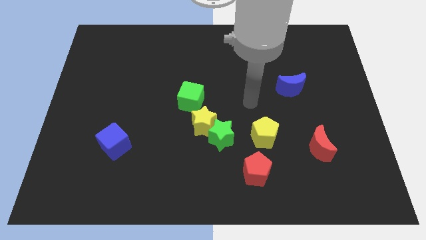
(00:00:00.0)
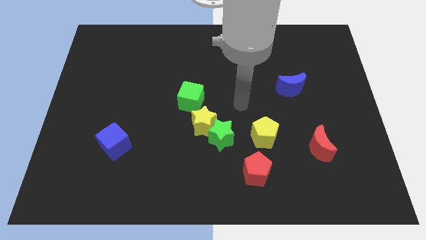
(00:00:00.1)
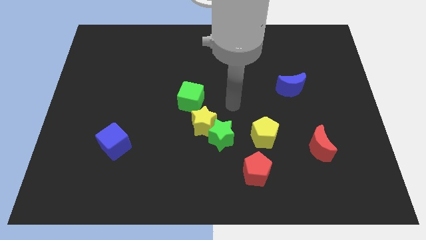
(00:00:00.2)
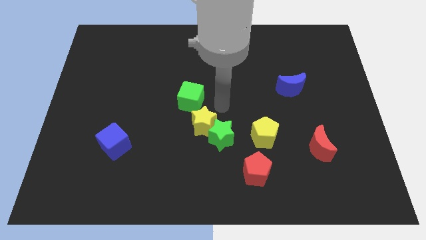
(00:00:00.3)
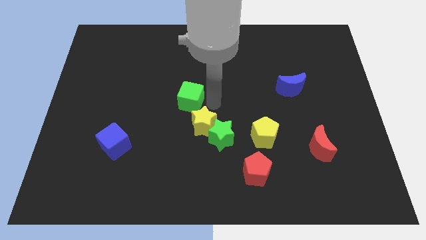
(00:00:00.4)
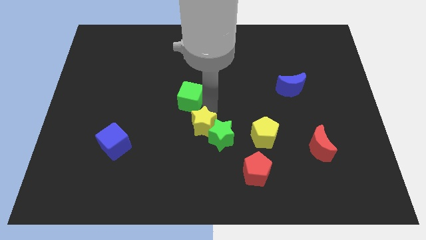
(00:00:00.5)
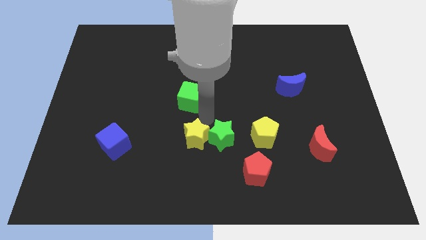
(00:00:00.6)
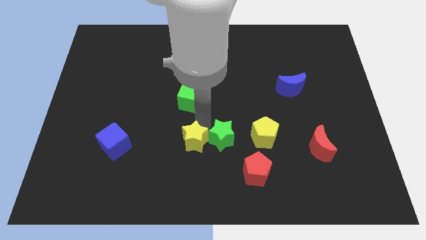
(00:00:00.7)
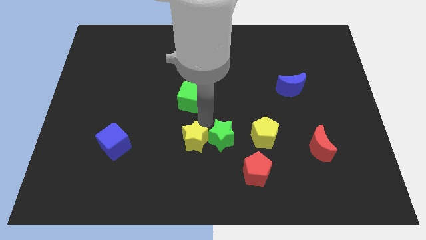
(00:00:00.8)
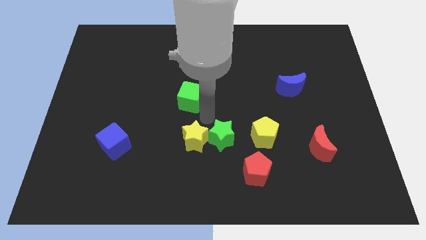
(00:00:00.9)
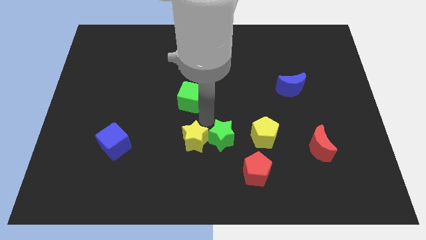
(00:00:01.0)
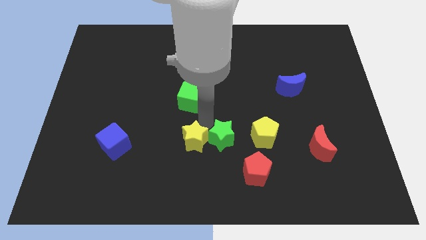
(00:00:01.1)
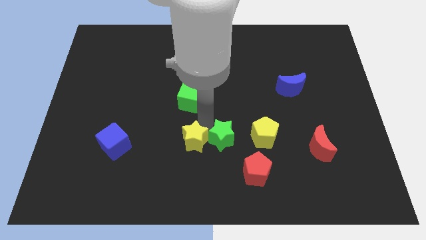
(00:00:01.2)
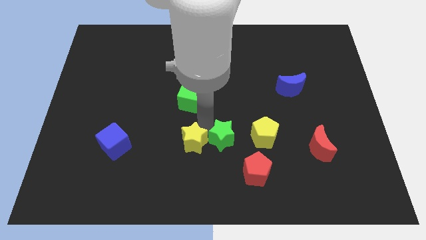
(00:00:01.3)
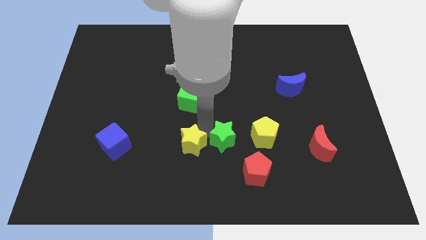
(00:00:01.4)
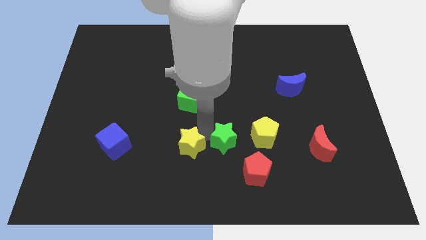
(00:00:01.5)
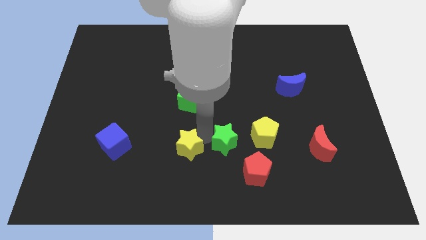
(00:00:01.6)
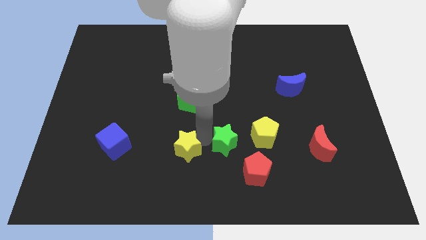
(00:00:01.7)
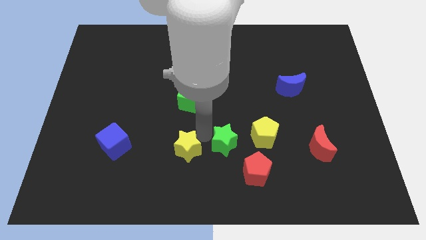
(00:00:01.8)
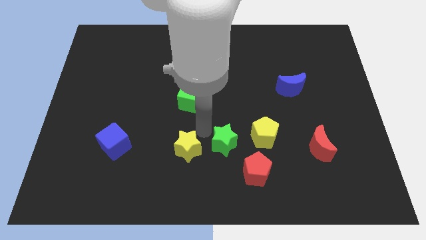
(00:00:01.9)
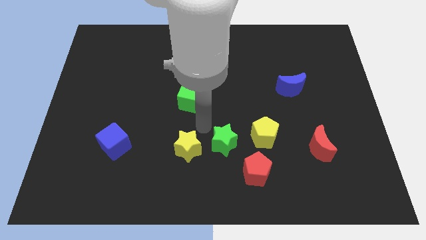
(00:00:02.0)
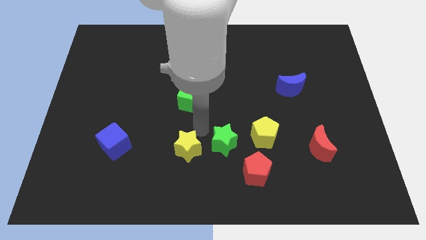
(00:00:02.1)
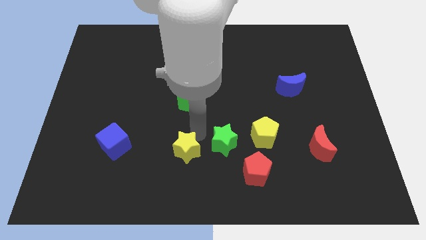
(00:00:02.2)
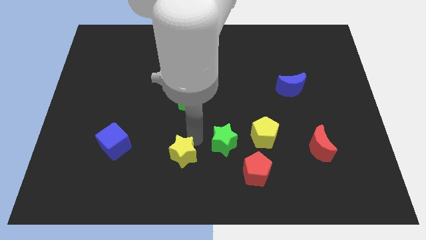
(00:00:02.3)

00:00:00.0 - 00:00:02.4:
pull the yellow star apart from the green star and green cube

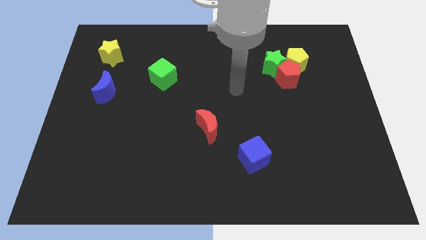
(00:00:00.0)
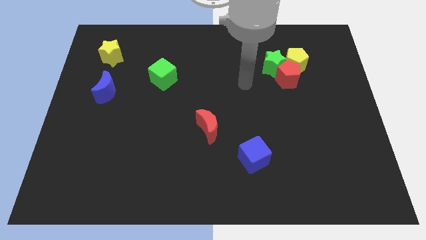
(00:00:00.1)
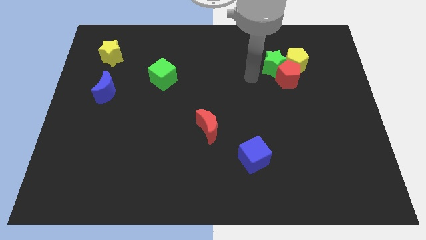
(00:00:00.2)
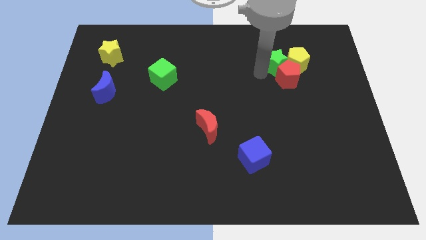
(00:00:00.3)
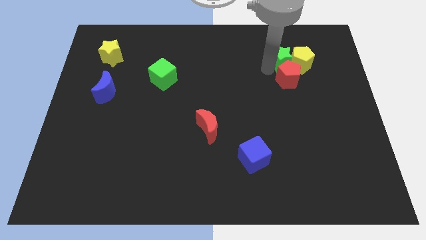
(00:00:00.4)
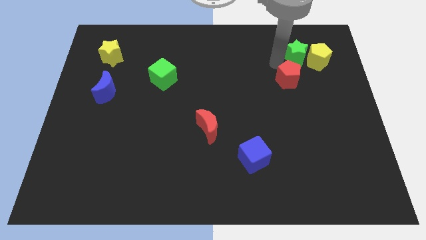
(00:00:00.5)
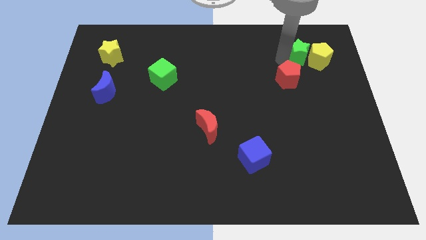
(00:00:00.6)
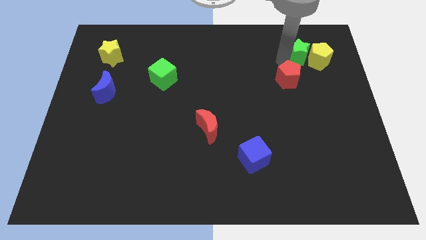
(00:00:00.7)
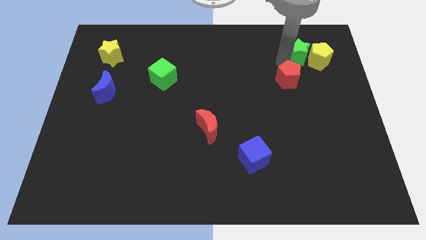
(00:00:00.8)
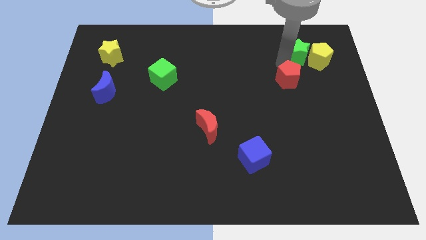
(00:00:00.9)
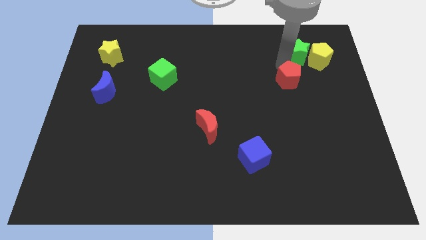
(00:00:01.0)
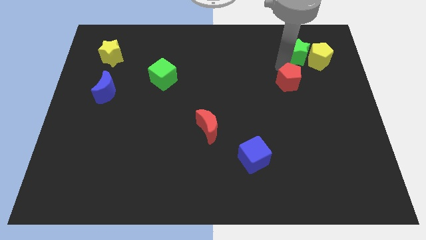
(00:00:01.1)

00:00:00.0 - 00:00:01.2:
move the red pentagon away from the yellow pentagon and green star

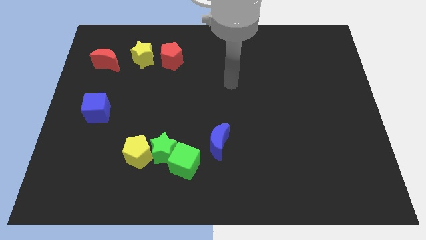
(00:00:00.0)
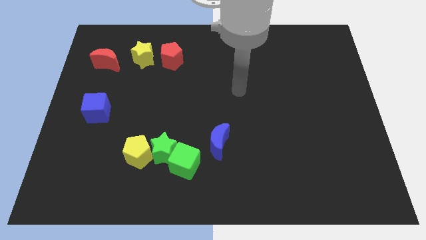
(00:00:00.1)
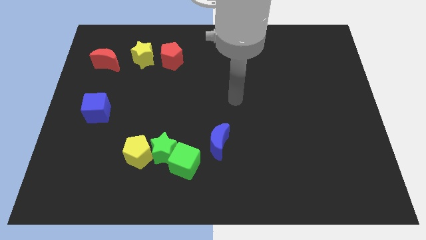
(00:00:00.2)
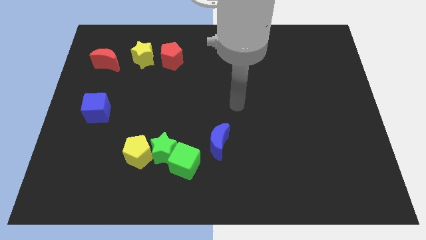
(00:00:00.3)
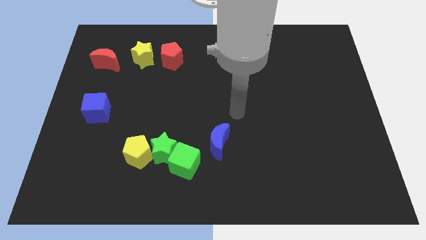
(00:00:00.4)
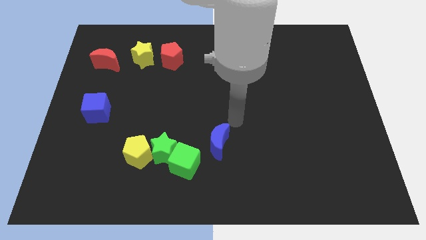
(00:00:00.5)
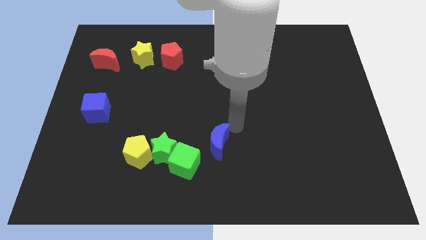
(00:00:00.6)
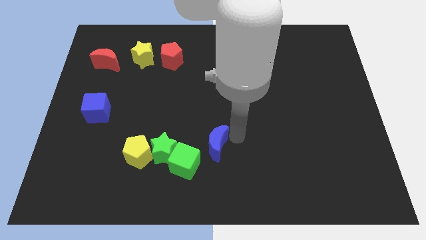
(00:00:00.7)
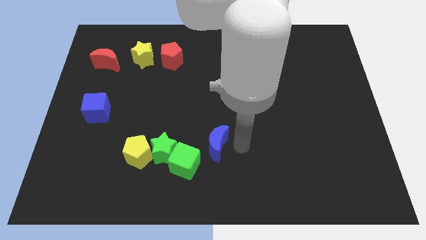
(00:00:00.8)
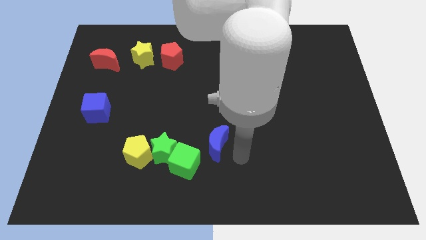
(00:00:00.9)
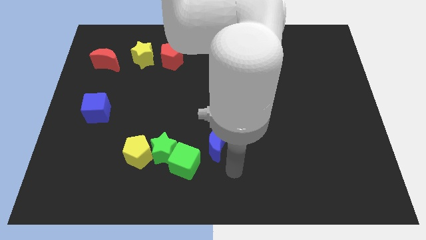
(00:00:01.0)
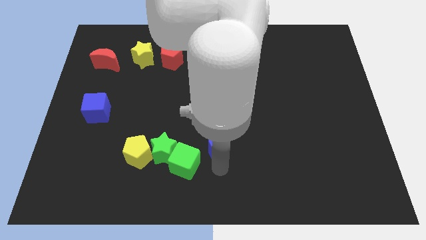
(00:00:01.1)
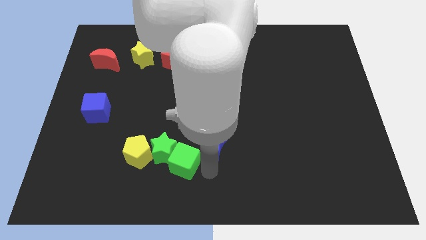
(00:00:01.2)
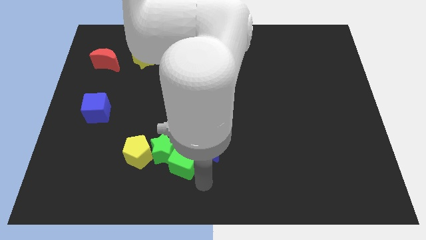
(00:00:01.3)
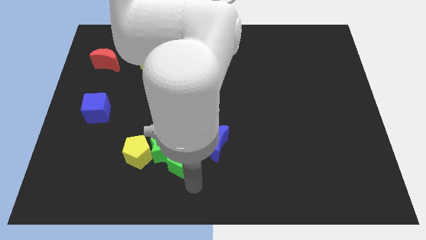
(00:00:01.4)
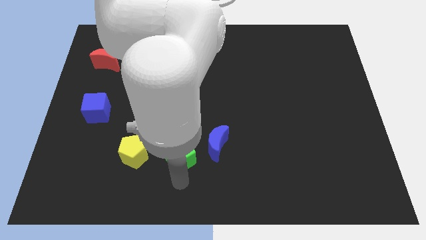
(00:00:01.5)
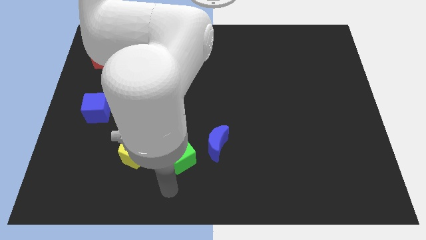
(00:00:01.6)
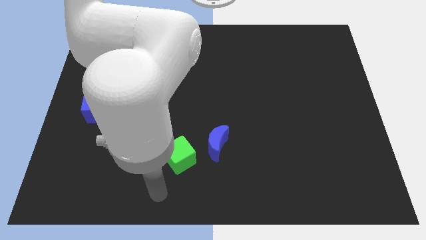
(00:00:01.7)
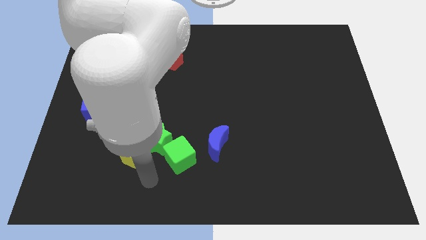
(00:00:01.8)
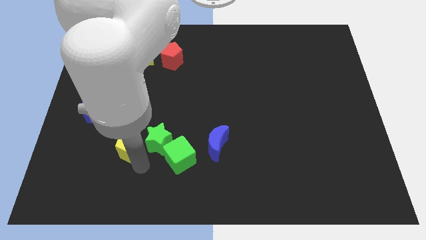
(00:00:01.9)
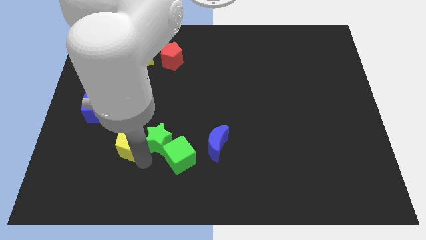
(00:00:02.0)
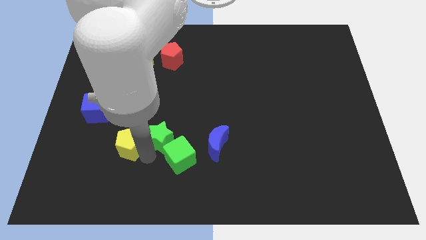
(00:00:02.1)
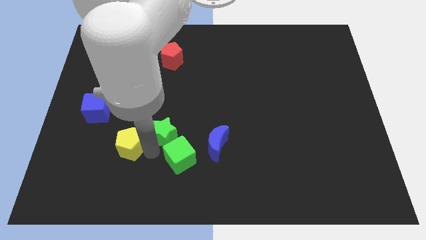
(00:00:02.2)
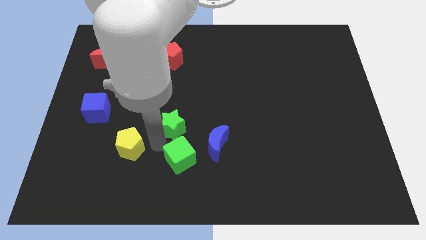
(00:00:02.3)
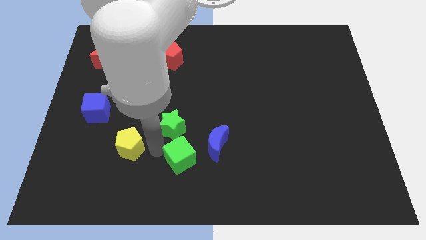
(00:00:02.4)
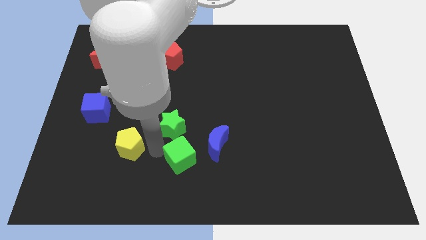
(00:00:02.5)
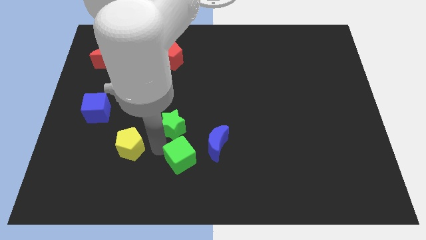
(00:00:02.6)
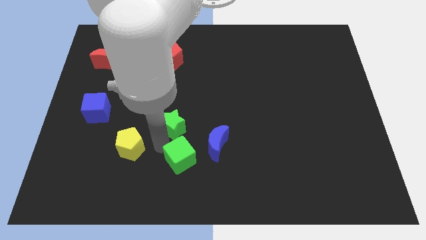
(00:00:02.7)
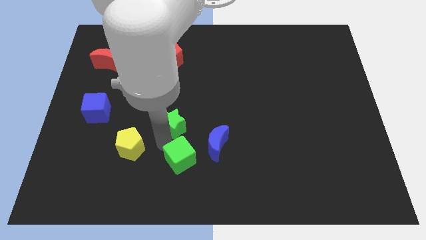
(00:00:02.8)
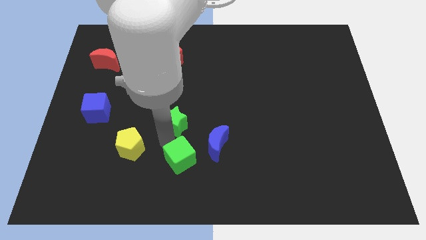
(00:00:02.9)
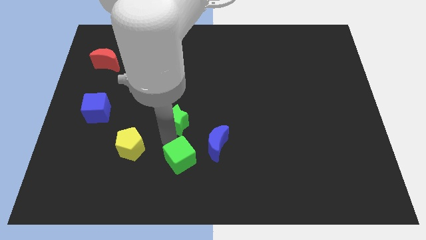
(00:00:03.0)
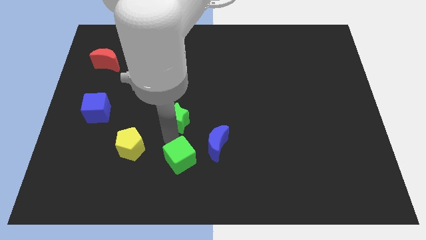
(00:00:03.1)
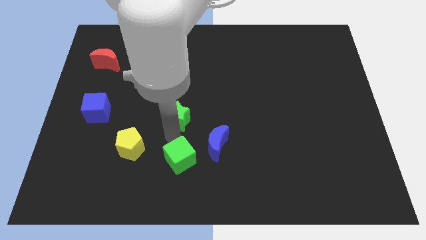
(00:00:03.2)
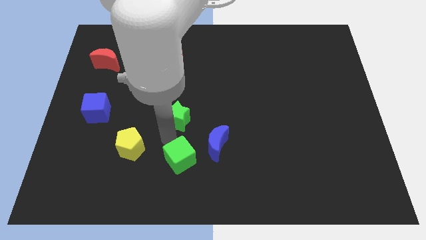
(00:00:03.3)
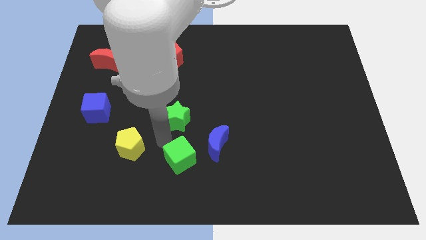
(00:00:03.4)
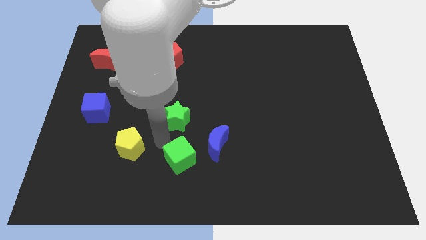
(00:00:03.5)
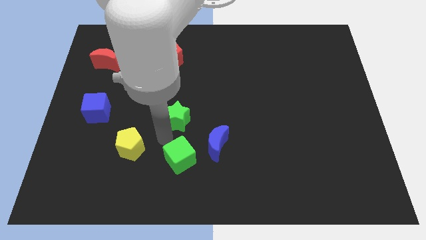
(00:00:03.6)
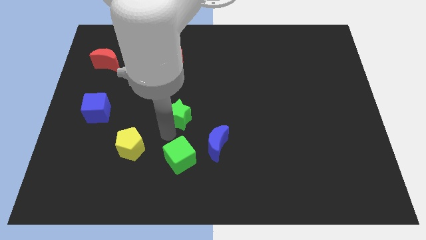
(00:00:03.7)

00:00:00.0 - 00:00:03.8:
pull the green star apart from the yellow pentagon and green cube

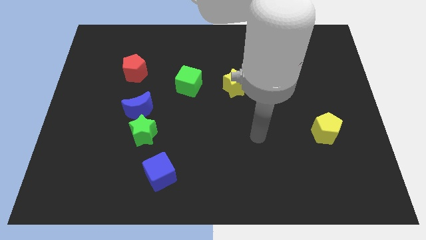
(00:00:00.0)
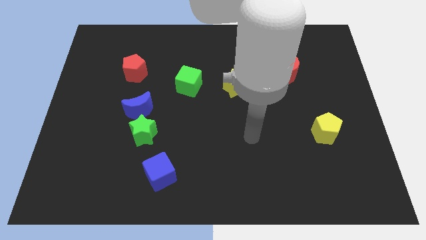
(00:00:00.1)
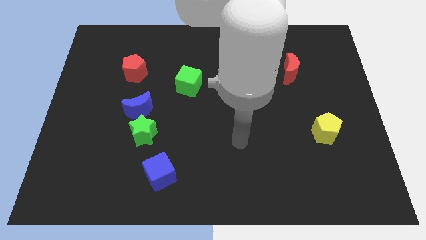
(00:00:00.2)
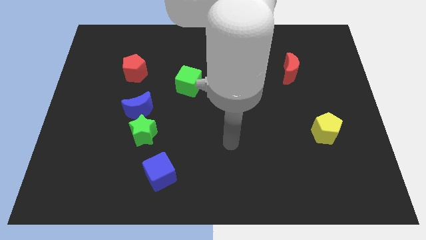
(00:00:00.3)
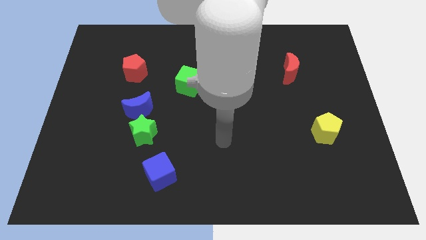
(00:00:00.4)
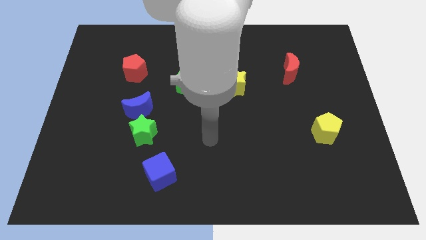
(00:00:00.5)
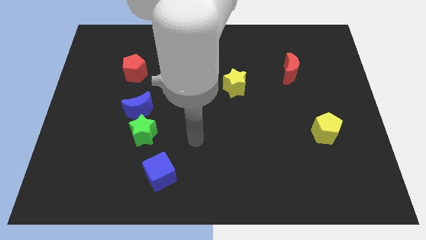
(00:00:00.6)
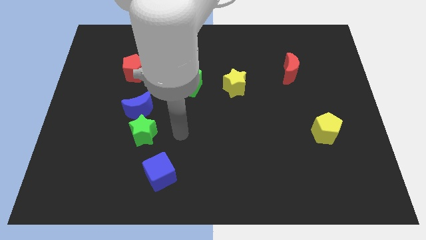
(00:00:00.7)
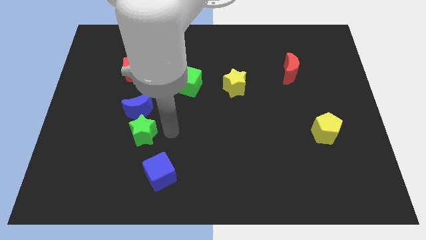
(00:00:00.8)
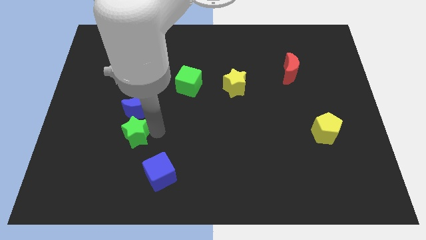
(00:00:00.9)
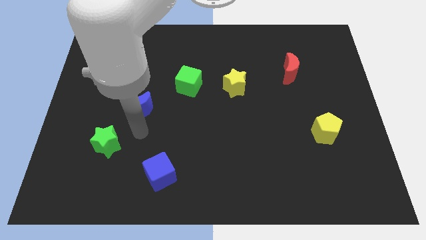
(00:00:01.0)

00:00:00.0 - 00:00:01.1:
move the blue moon away from the green star

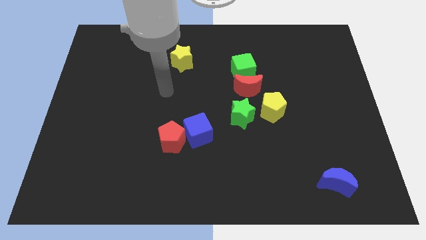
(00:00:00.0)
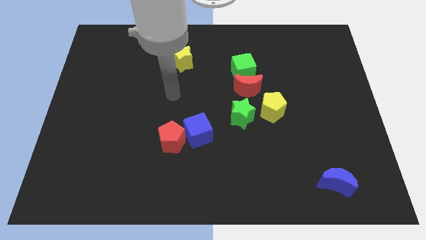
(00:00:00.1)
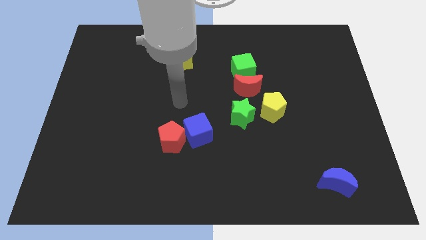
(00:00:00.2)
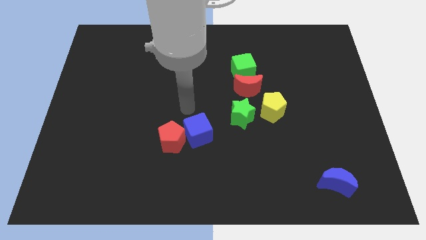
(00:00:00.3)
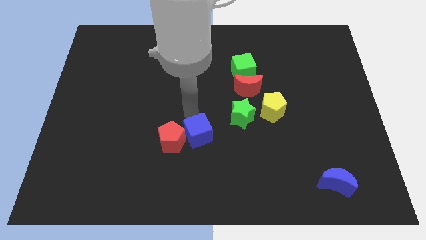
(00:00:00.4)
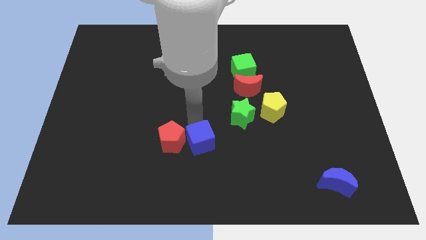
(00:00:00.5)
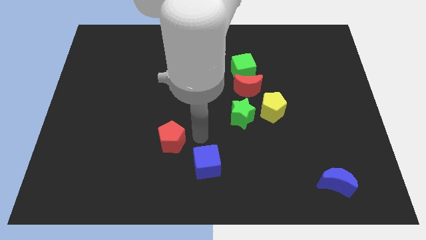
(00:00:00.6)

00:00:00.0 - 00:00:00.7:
separate the red pentagon from the blue cube
